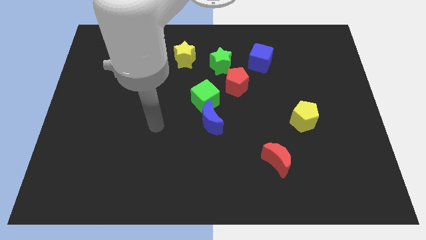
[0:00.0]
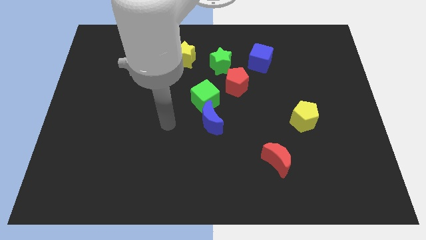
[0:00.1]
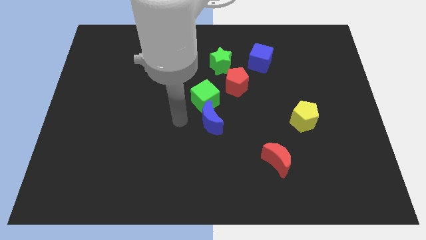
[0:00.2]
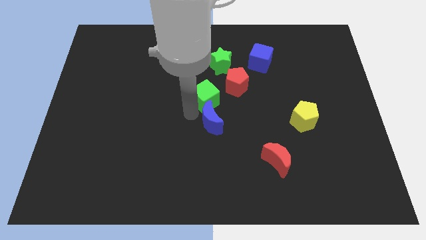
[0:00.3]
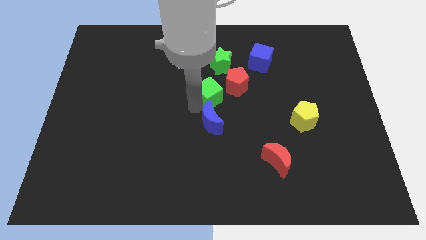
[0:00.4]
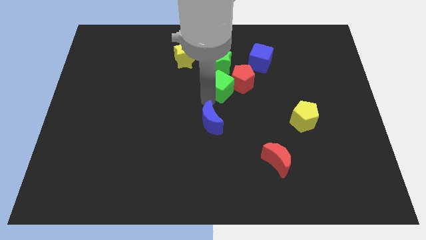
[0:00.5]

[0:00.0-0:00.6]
pull the blue moon apart from the green cube

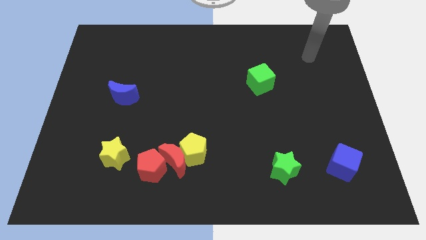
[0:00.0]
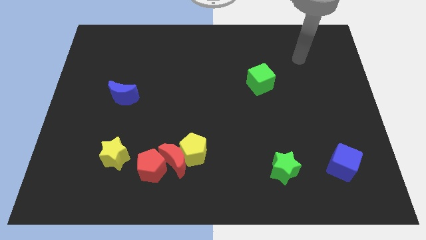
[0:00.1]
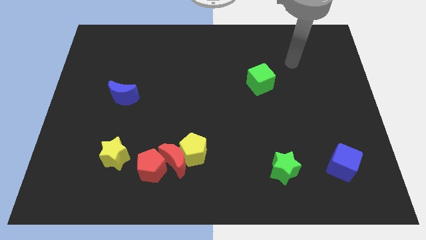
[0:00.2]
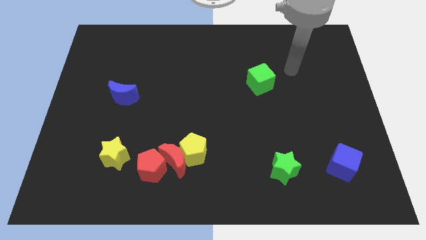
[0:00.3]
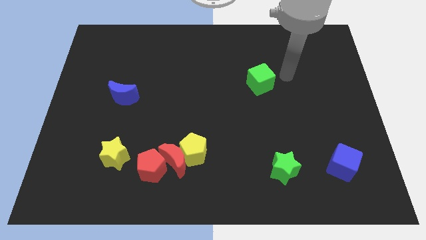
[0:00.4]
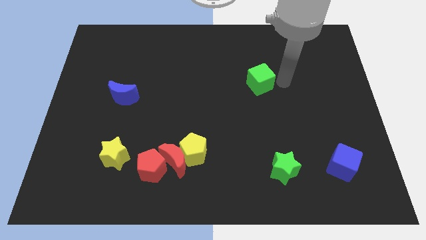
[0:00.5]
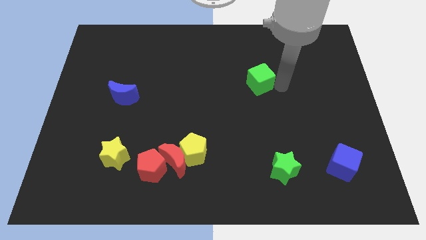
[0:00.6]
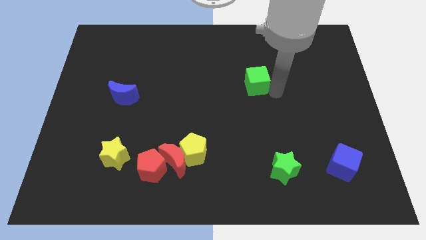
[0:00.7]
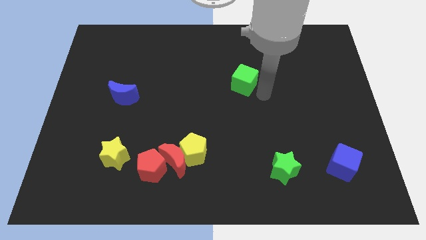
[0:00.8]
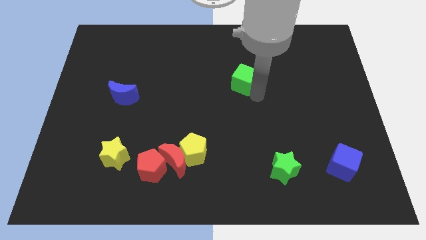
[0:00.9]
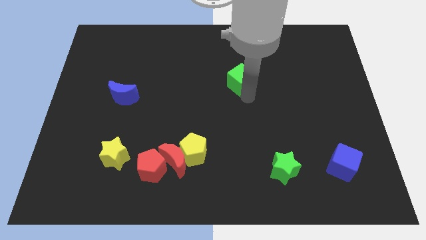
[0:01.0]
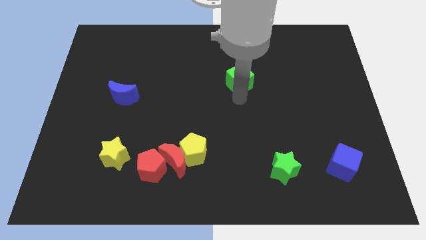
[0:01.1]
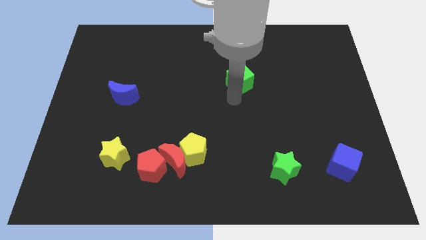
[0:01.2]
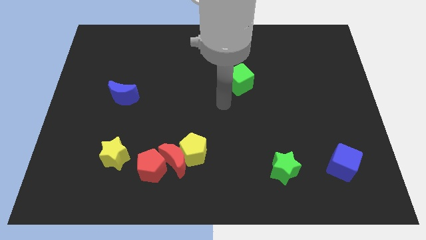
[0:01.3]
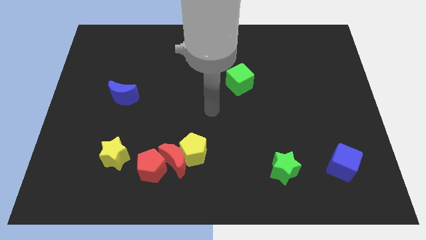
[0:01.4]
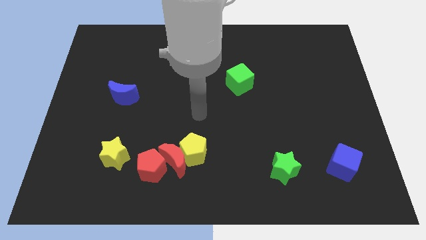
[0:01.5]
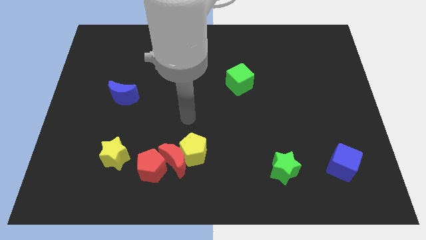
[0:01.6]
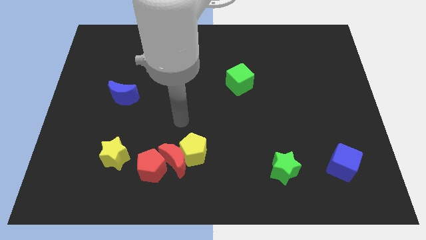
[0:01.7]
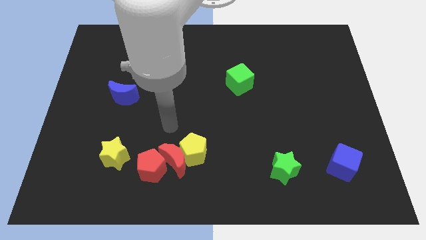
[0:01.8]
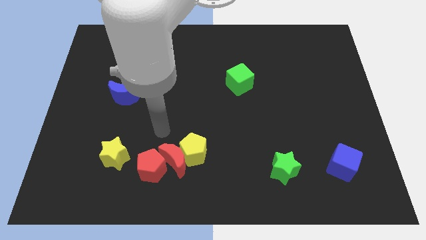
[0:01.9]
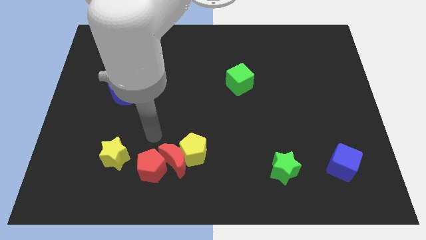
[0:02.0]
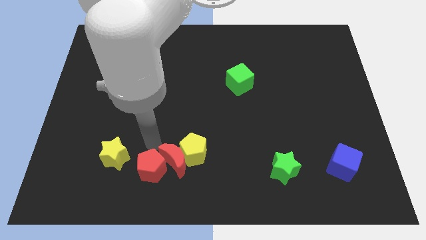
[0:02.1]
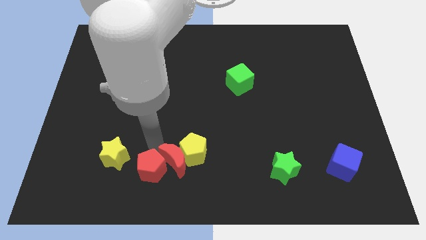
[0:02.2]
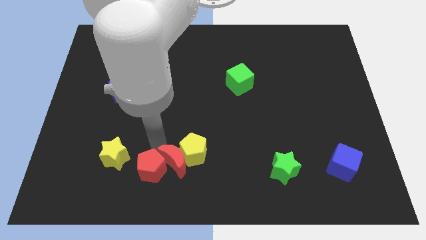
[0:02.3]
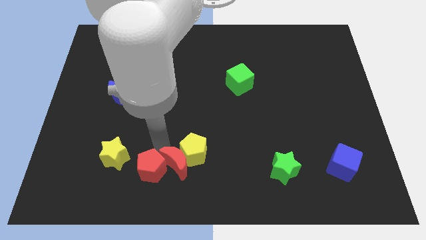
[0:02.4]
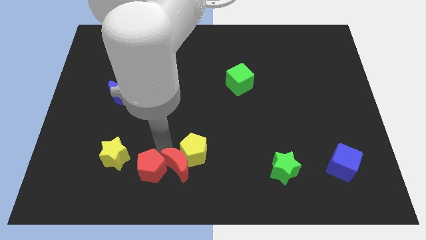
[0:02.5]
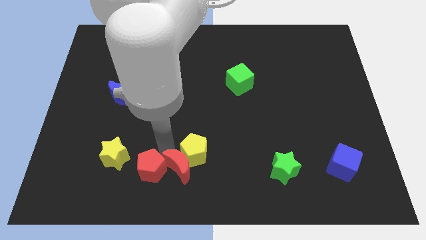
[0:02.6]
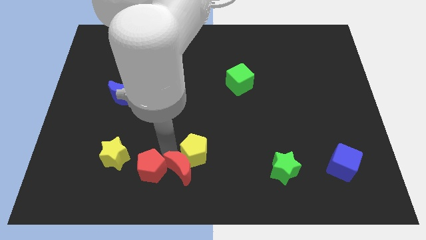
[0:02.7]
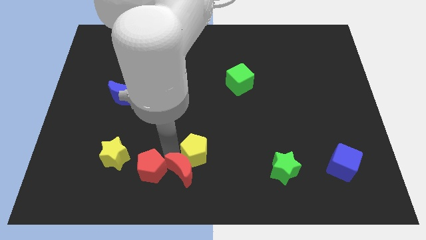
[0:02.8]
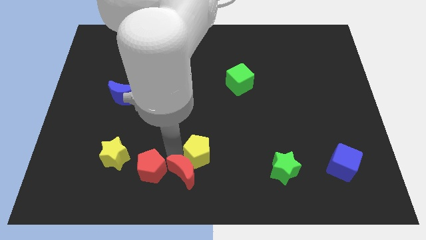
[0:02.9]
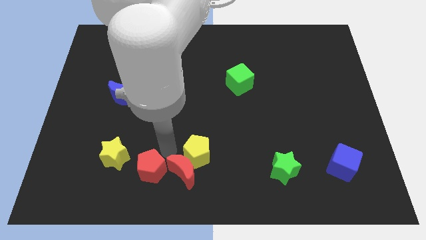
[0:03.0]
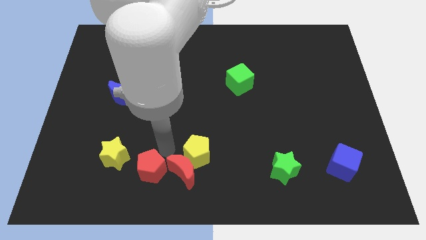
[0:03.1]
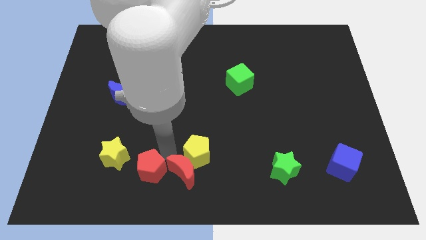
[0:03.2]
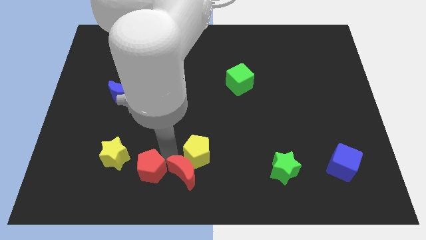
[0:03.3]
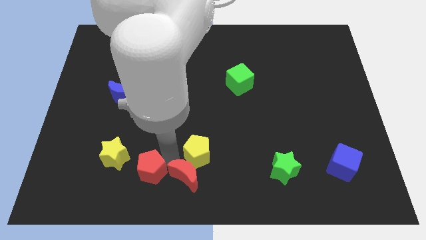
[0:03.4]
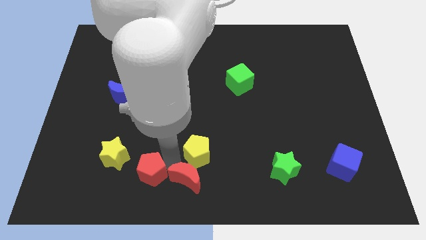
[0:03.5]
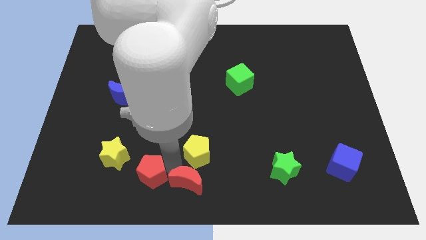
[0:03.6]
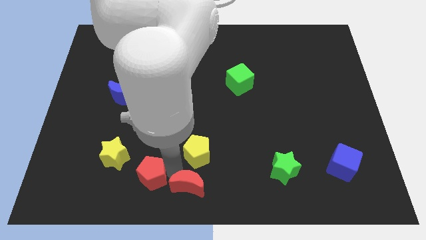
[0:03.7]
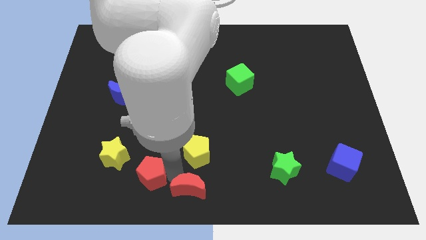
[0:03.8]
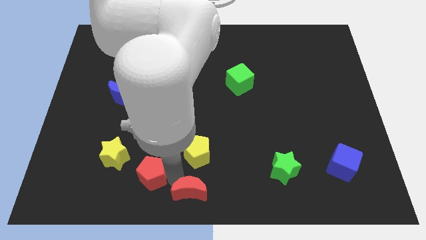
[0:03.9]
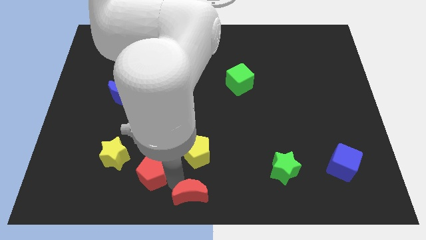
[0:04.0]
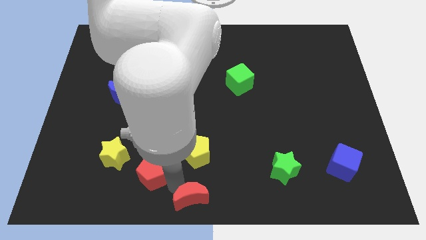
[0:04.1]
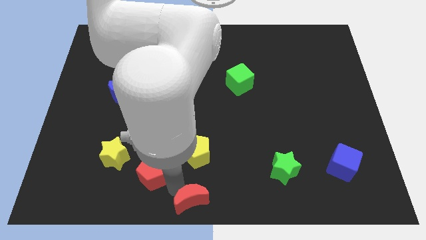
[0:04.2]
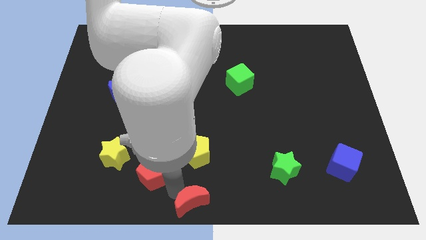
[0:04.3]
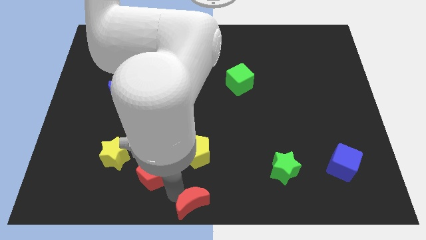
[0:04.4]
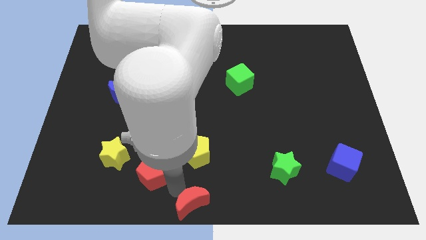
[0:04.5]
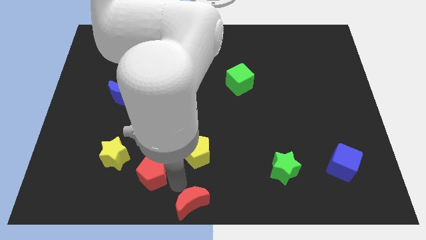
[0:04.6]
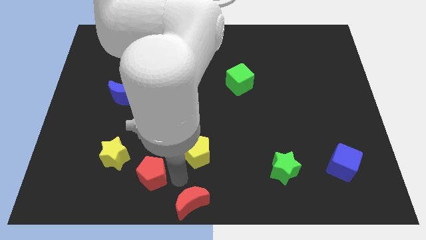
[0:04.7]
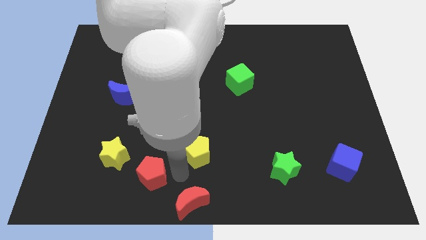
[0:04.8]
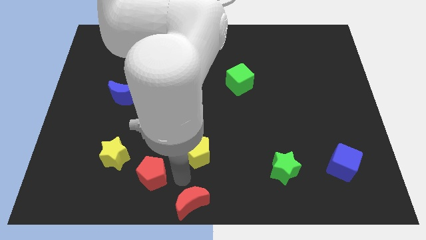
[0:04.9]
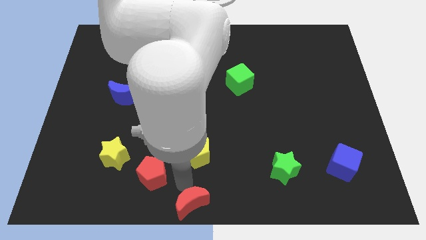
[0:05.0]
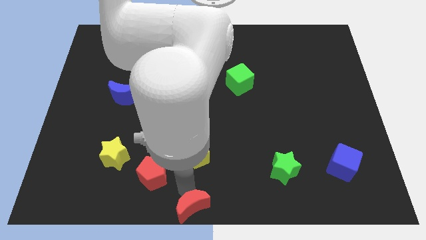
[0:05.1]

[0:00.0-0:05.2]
pull the red moon apart from the yellow pentagon and red pentagon

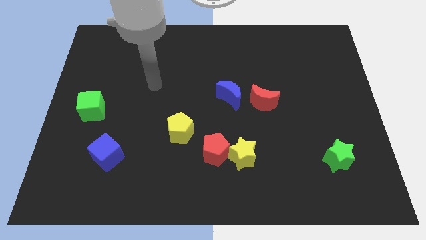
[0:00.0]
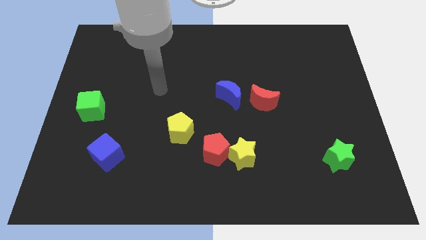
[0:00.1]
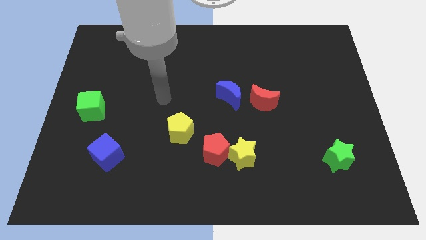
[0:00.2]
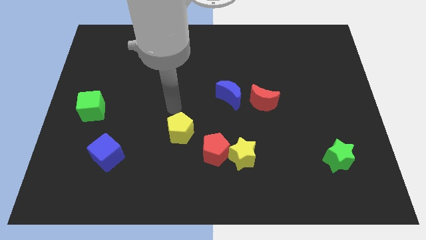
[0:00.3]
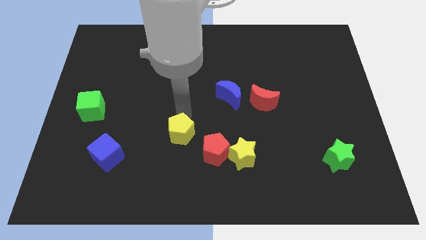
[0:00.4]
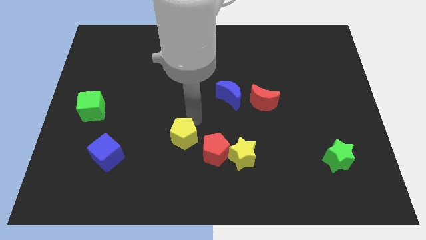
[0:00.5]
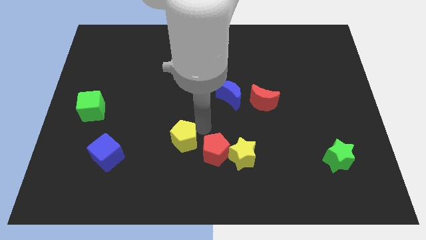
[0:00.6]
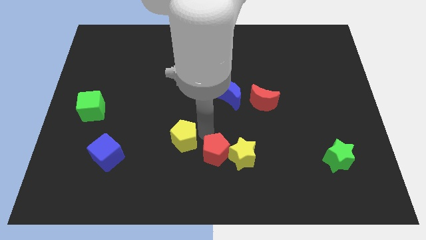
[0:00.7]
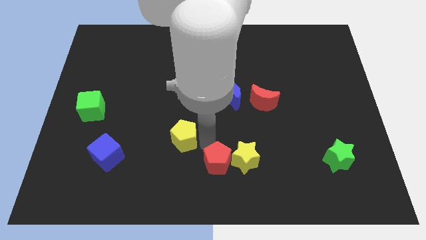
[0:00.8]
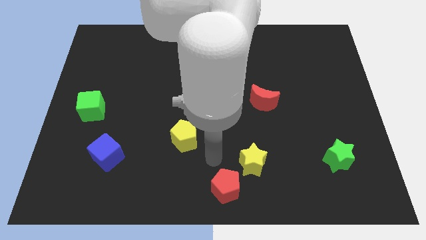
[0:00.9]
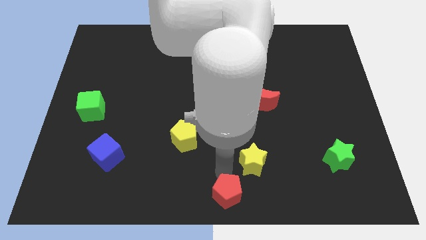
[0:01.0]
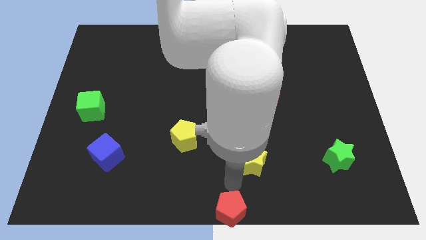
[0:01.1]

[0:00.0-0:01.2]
pull the yellow star apart from the red pentagon

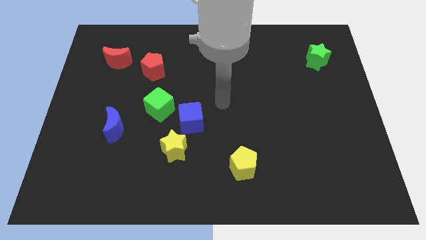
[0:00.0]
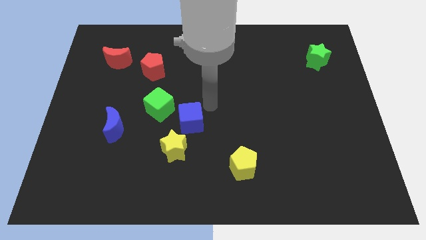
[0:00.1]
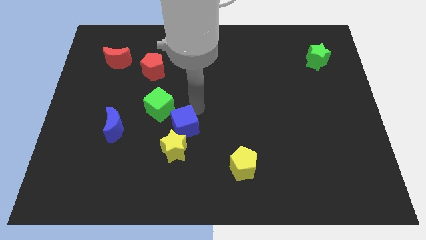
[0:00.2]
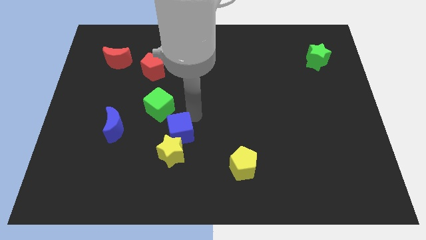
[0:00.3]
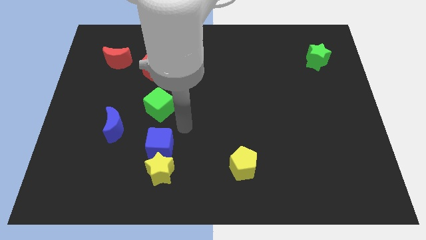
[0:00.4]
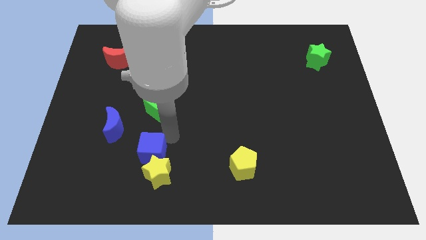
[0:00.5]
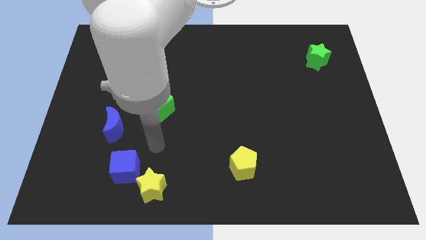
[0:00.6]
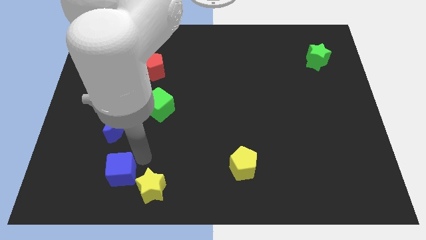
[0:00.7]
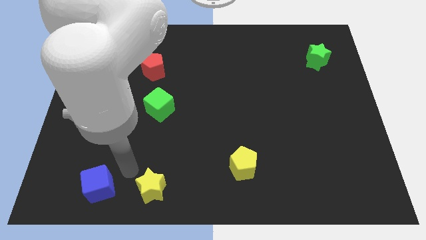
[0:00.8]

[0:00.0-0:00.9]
move the yellow star away from the blue cube

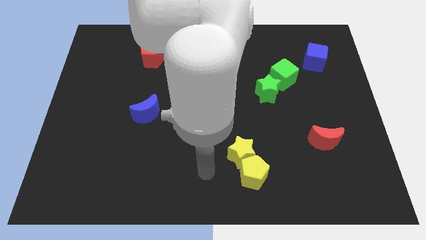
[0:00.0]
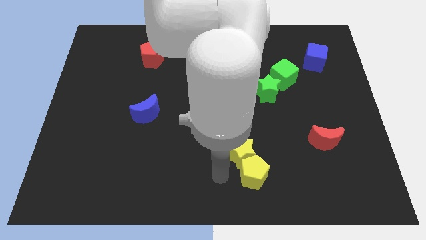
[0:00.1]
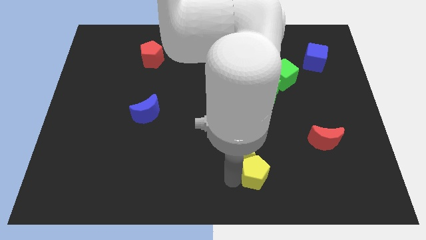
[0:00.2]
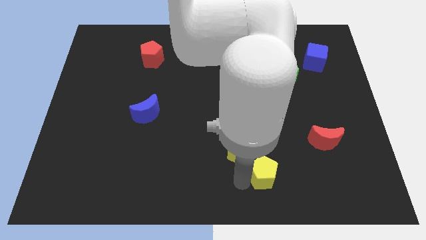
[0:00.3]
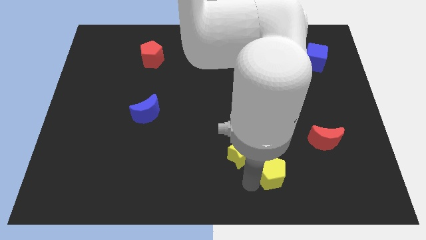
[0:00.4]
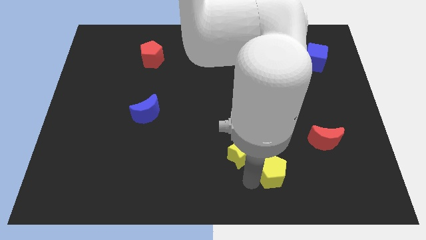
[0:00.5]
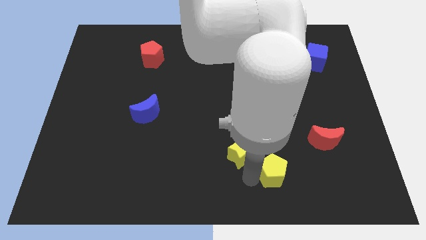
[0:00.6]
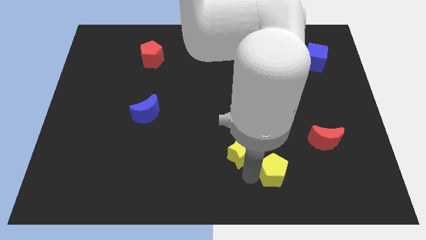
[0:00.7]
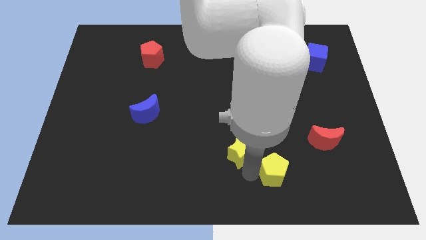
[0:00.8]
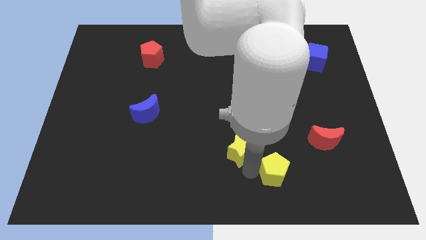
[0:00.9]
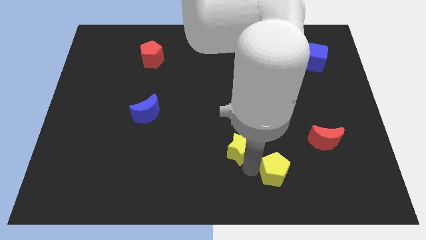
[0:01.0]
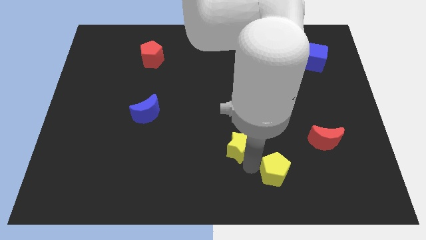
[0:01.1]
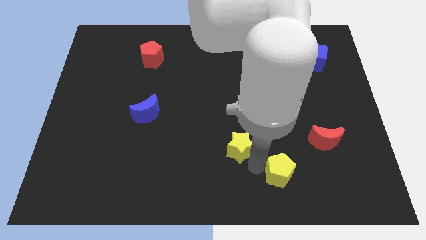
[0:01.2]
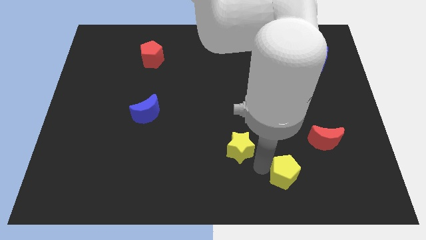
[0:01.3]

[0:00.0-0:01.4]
separate the yellow star from the yellow pentagon
